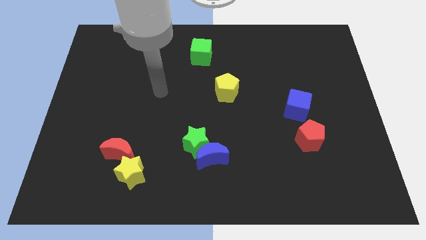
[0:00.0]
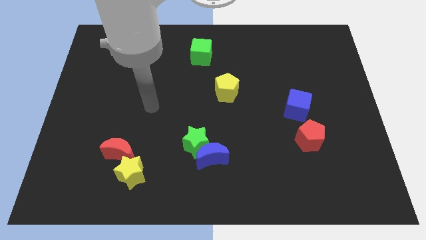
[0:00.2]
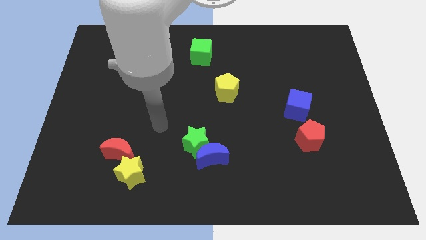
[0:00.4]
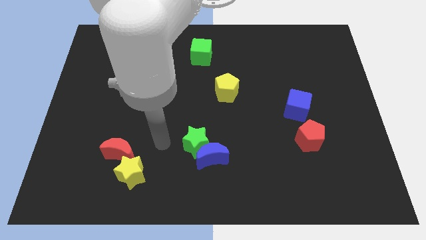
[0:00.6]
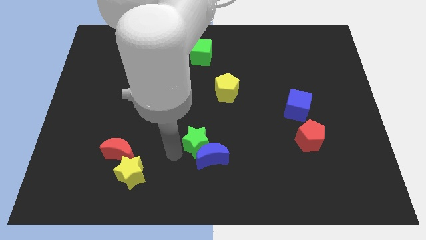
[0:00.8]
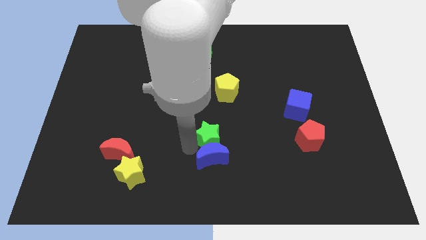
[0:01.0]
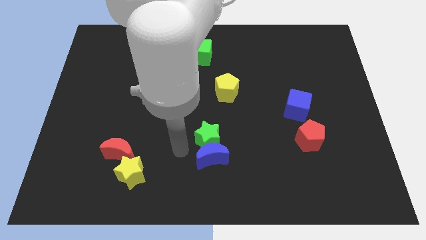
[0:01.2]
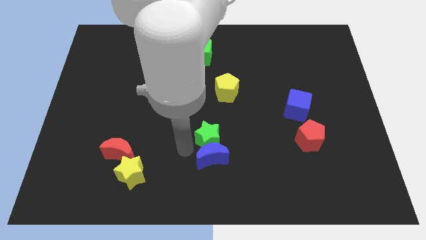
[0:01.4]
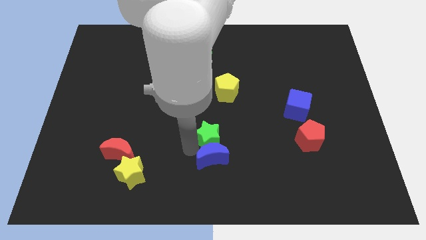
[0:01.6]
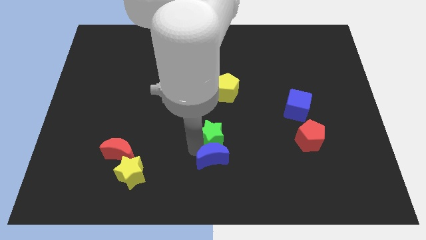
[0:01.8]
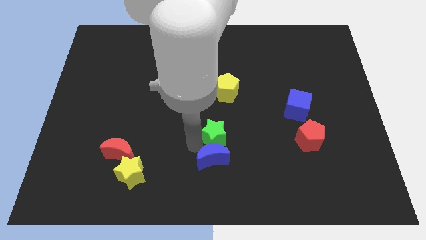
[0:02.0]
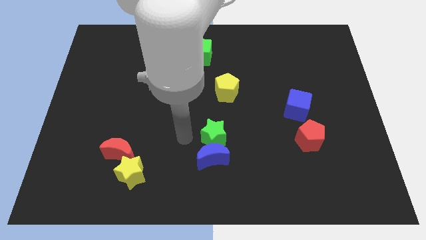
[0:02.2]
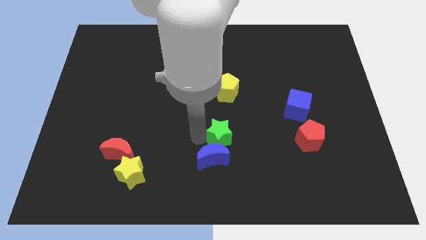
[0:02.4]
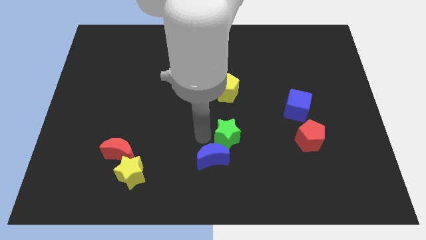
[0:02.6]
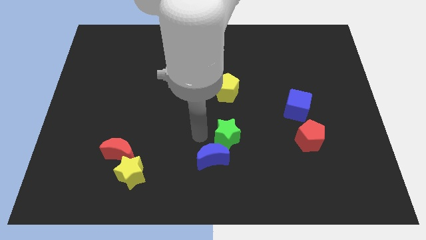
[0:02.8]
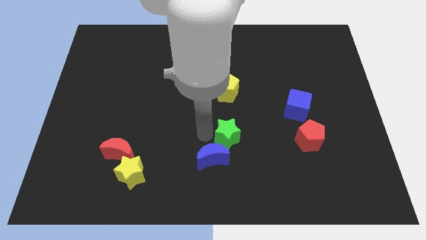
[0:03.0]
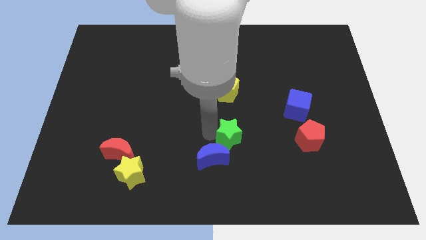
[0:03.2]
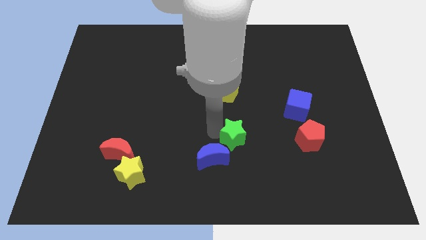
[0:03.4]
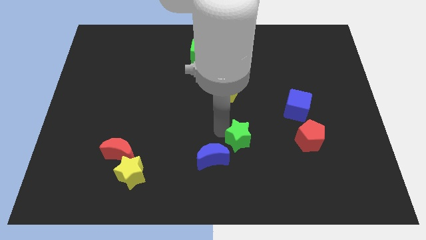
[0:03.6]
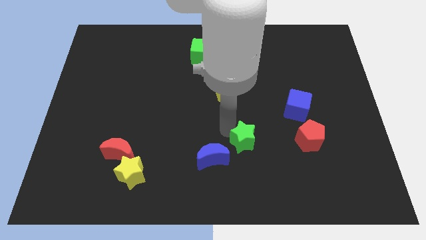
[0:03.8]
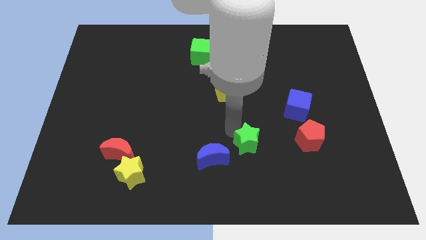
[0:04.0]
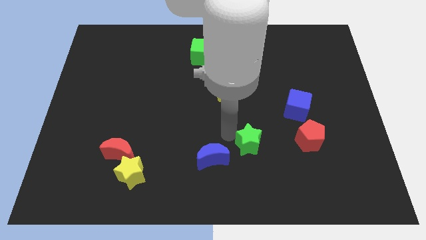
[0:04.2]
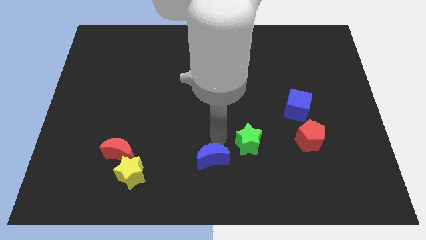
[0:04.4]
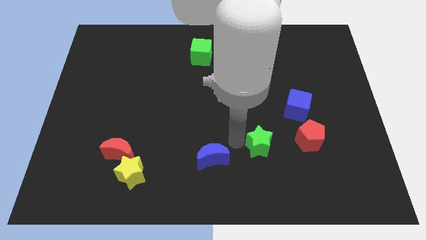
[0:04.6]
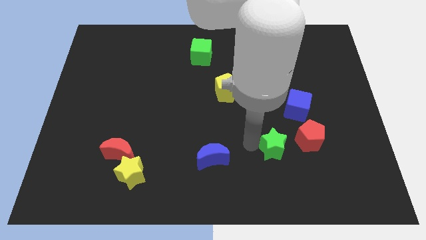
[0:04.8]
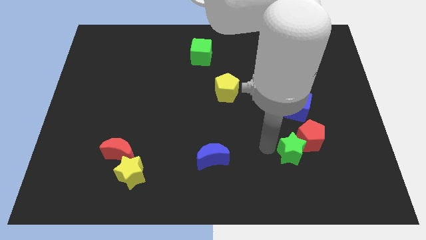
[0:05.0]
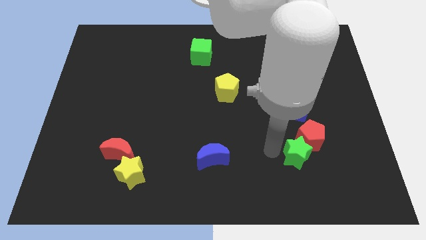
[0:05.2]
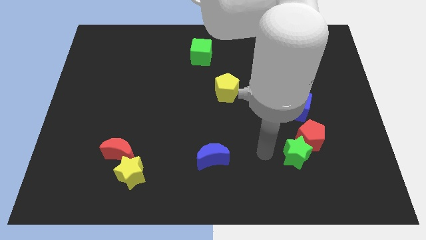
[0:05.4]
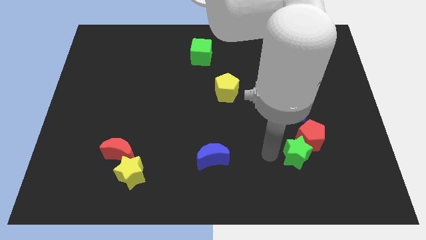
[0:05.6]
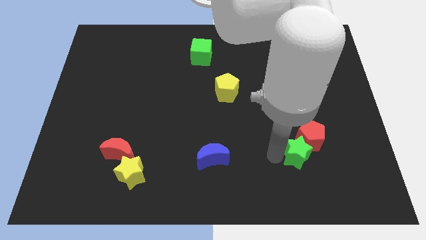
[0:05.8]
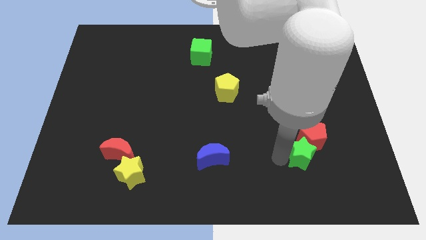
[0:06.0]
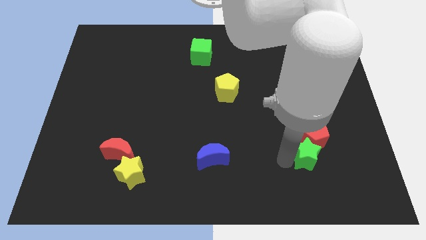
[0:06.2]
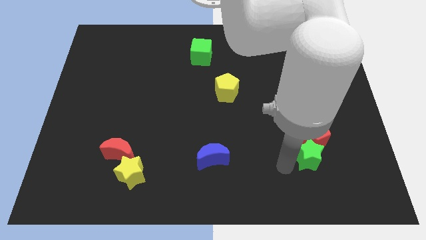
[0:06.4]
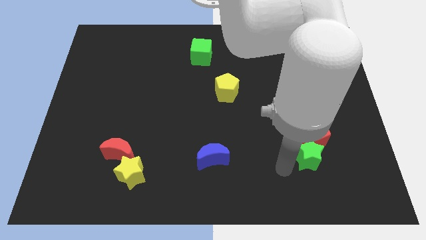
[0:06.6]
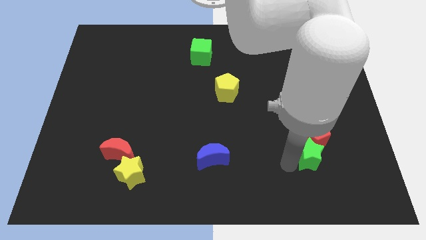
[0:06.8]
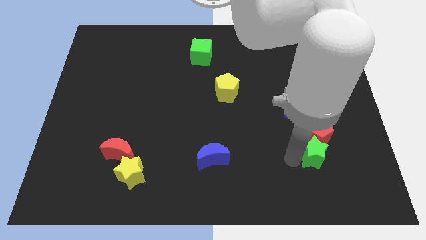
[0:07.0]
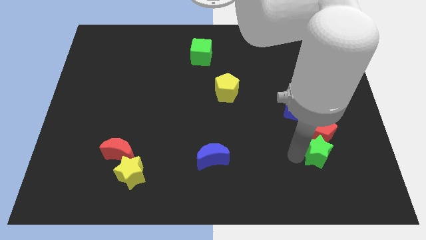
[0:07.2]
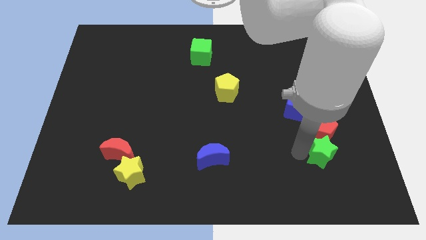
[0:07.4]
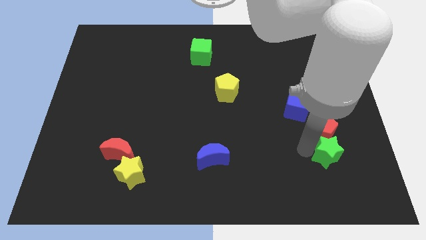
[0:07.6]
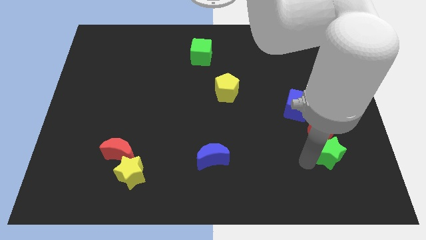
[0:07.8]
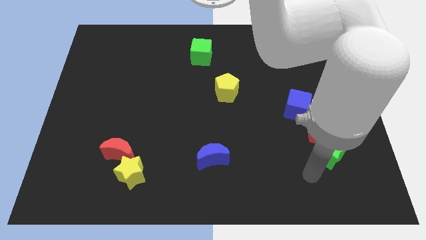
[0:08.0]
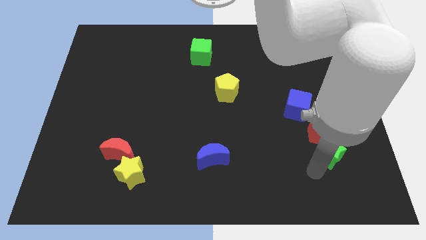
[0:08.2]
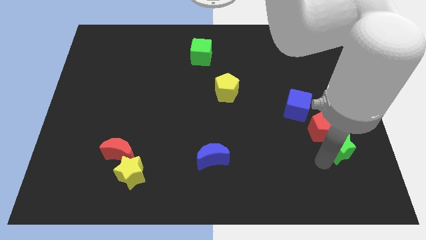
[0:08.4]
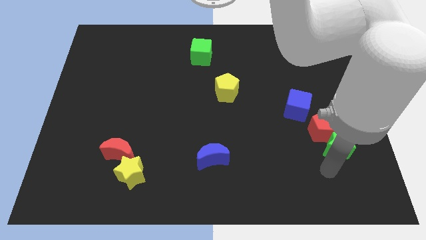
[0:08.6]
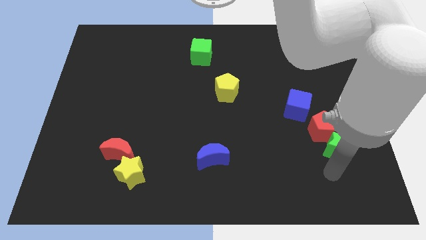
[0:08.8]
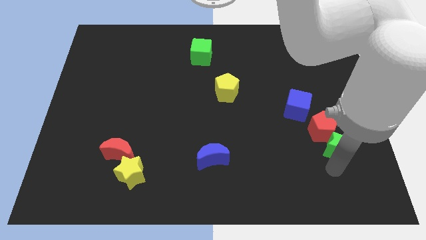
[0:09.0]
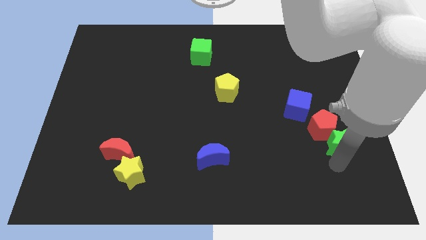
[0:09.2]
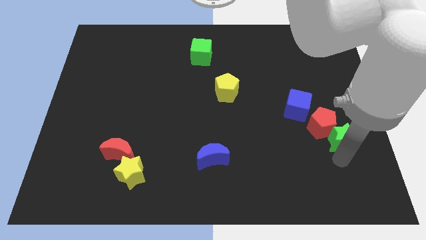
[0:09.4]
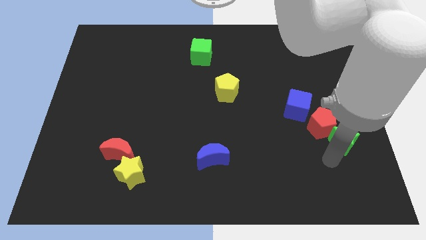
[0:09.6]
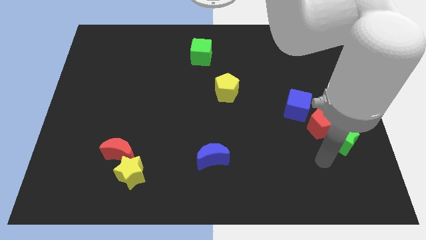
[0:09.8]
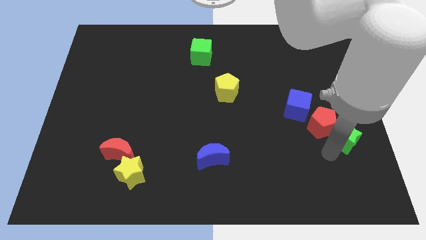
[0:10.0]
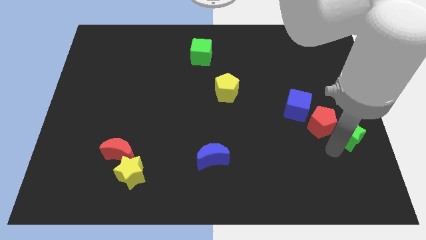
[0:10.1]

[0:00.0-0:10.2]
move the green star to the right side

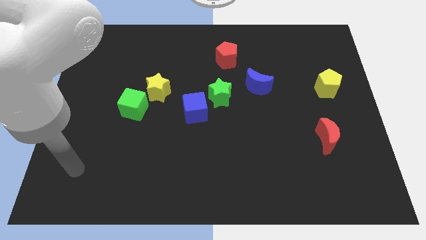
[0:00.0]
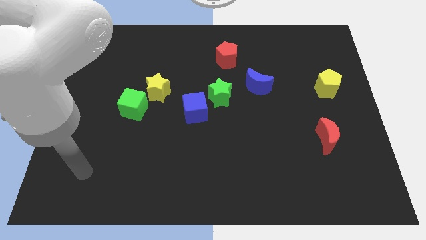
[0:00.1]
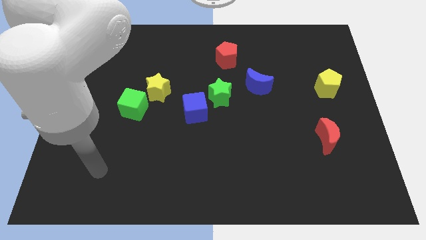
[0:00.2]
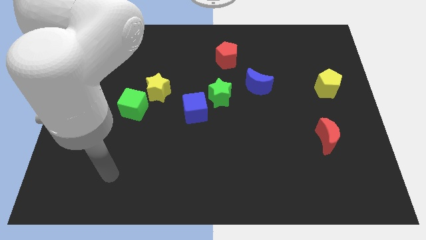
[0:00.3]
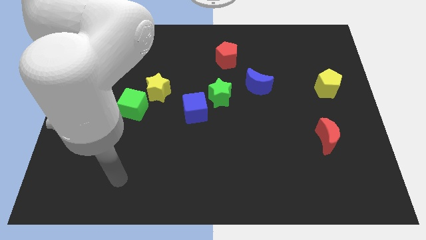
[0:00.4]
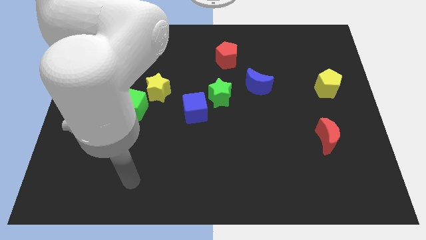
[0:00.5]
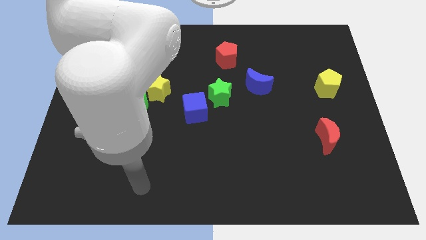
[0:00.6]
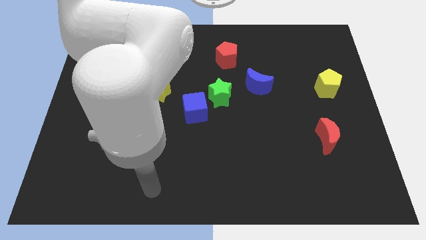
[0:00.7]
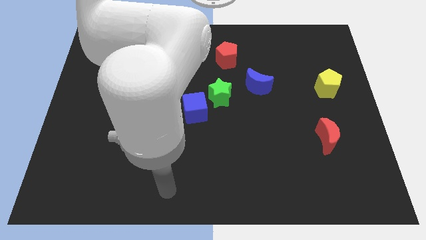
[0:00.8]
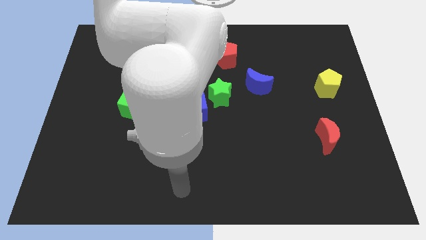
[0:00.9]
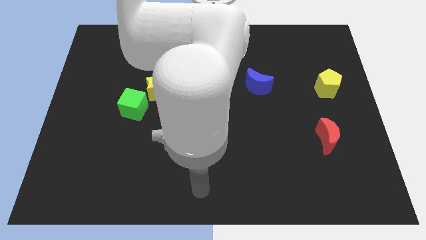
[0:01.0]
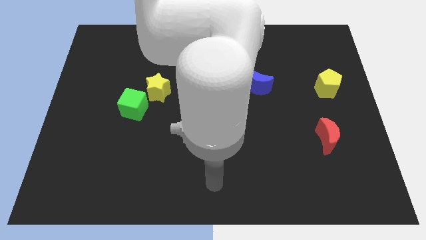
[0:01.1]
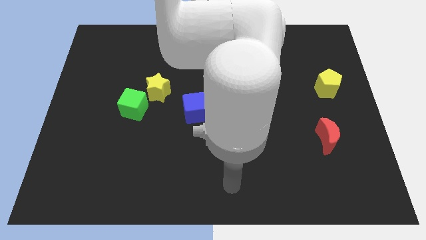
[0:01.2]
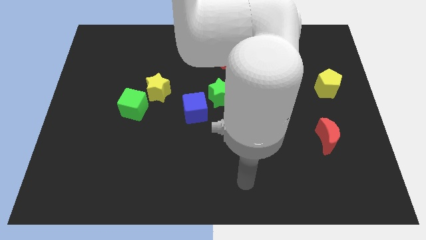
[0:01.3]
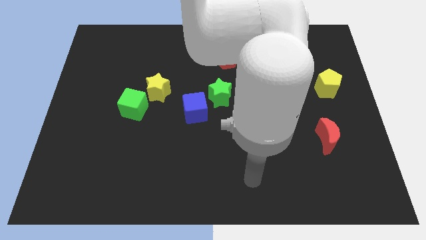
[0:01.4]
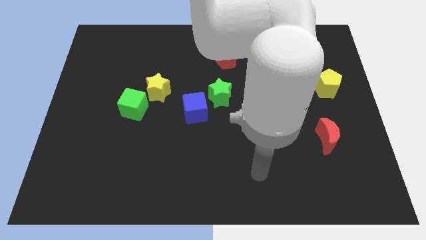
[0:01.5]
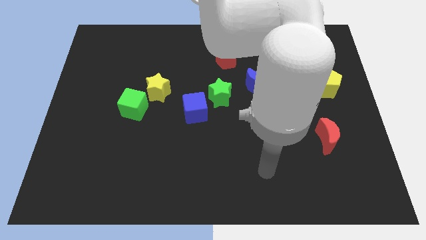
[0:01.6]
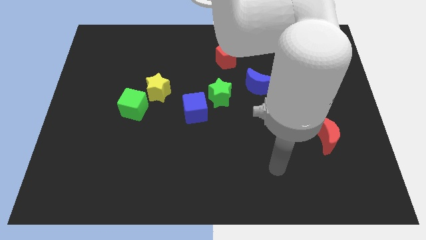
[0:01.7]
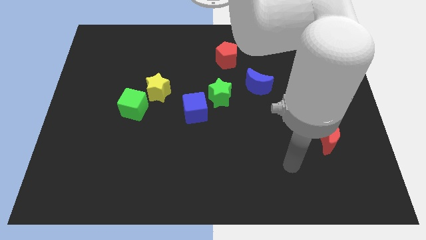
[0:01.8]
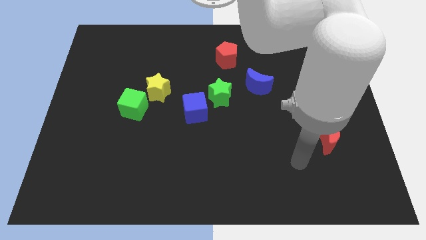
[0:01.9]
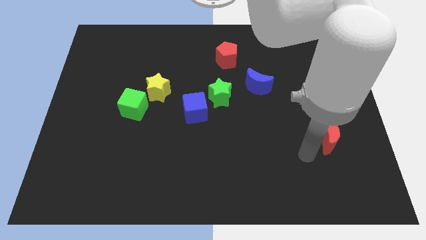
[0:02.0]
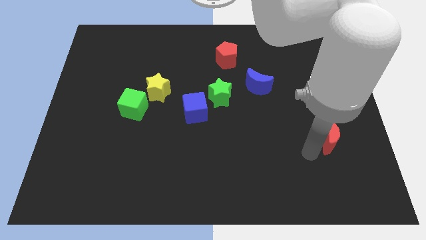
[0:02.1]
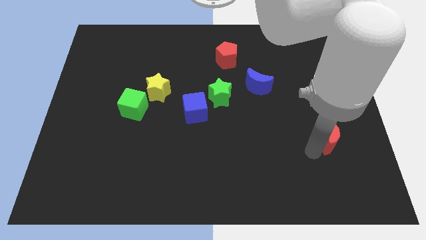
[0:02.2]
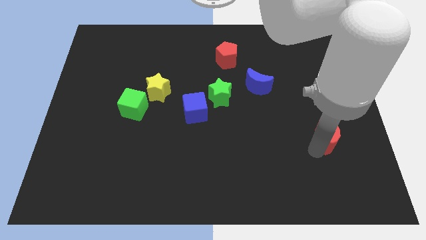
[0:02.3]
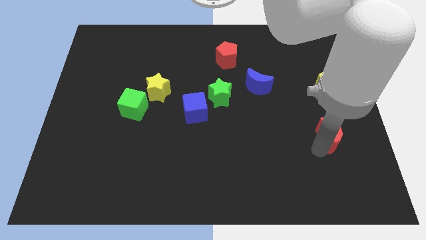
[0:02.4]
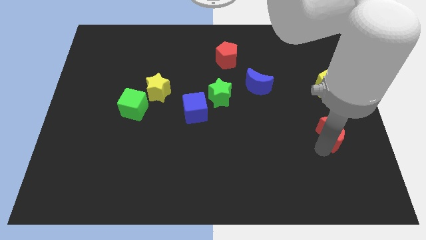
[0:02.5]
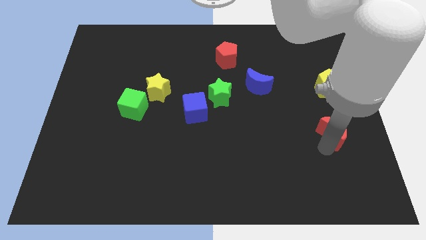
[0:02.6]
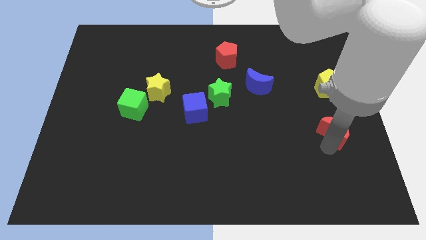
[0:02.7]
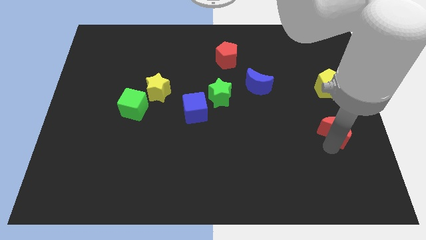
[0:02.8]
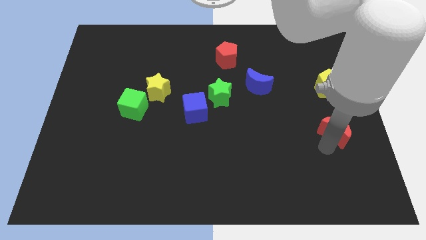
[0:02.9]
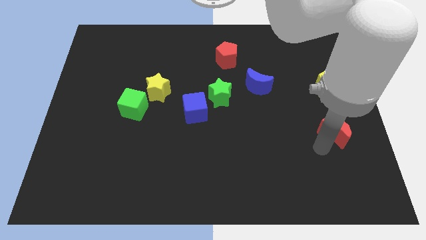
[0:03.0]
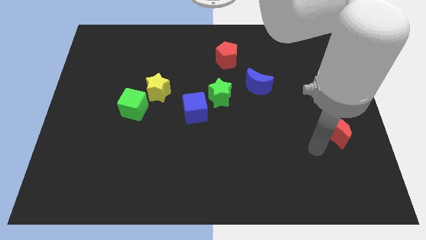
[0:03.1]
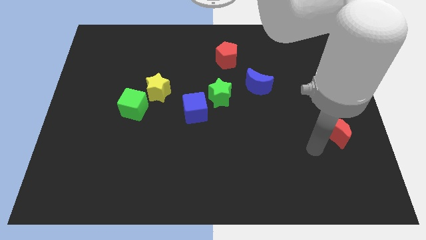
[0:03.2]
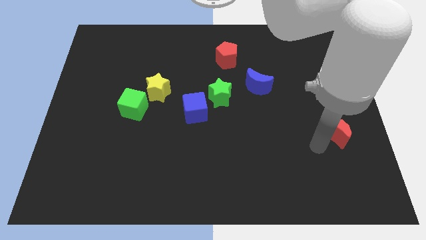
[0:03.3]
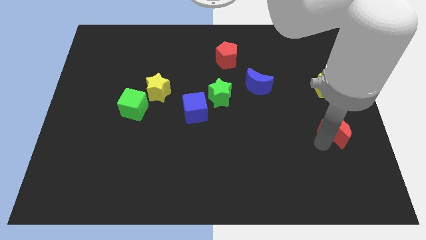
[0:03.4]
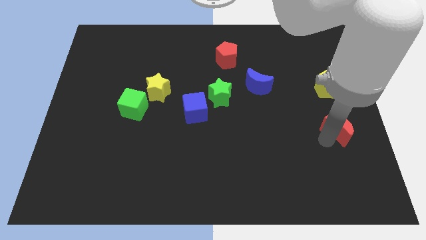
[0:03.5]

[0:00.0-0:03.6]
slide the red moon to the center right
